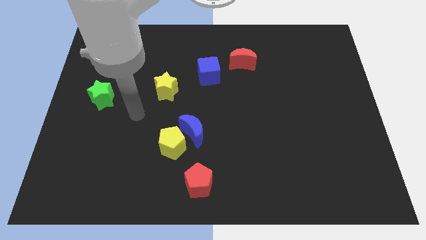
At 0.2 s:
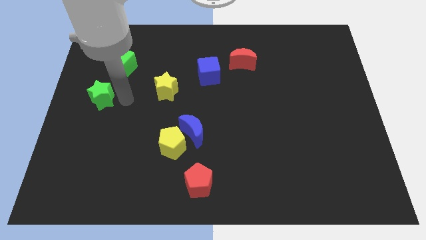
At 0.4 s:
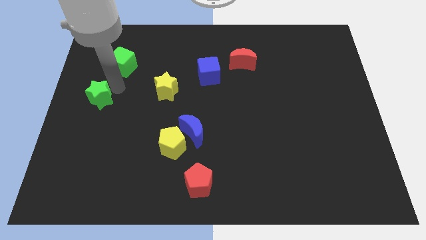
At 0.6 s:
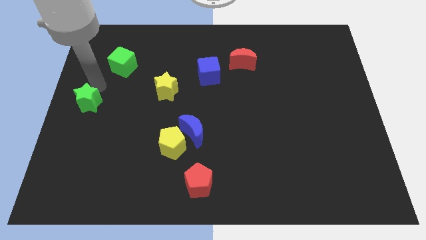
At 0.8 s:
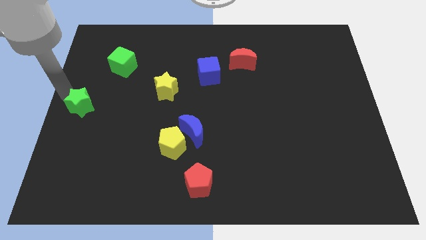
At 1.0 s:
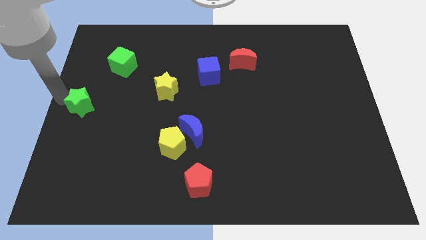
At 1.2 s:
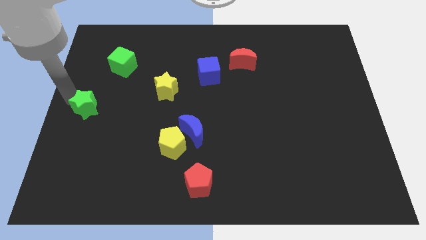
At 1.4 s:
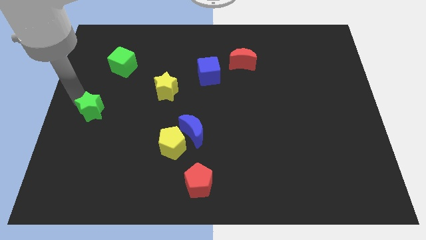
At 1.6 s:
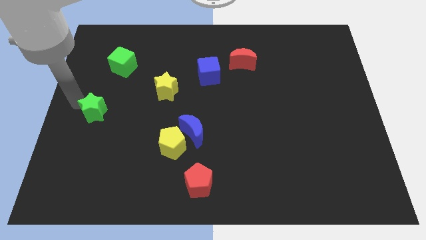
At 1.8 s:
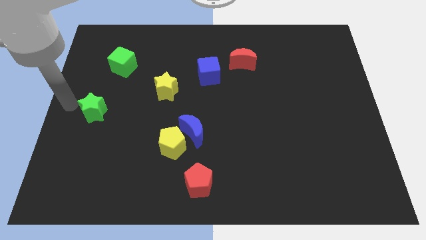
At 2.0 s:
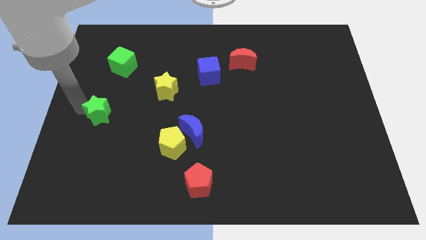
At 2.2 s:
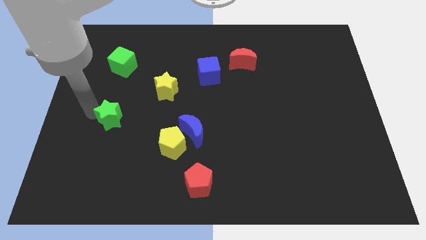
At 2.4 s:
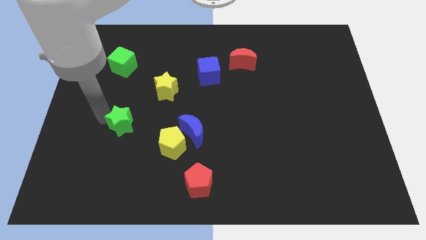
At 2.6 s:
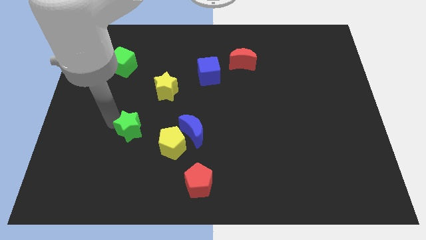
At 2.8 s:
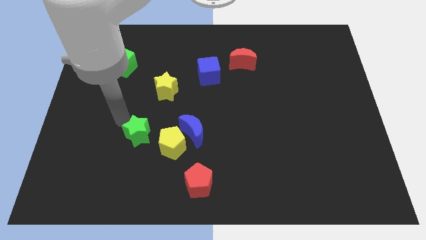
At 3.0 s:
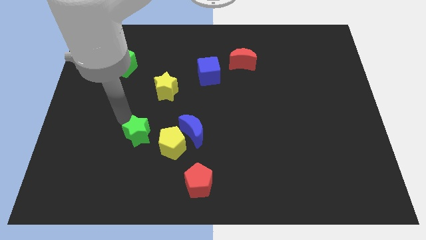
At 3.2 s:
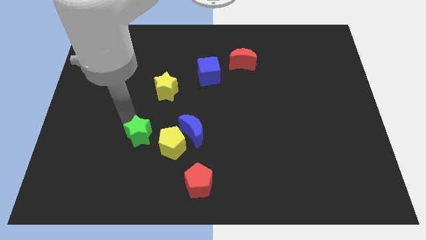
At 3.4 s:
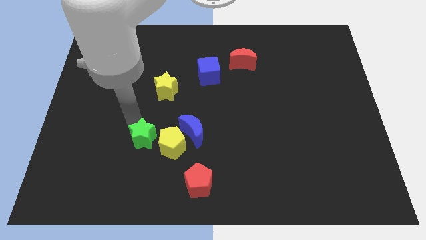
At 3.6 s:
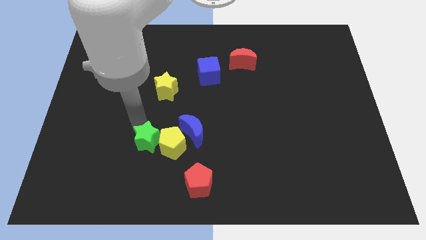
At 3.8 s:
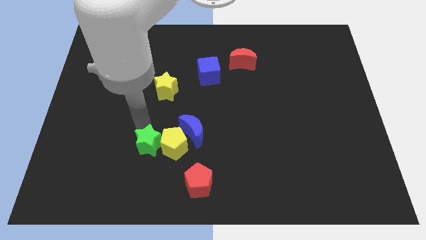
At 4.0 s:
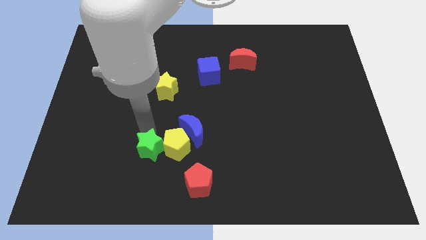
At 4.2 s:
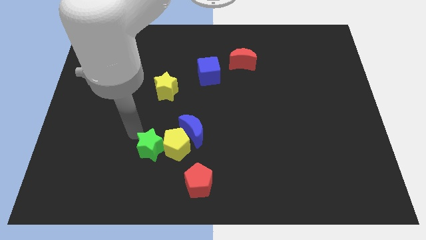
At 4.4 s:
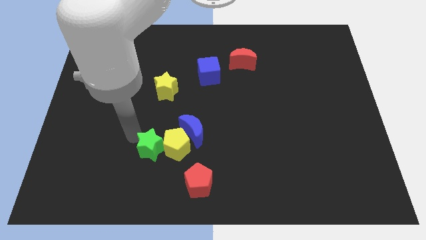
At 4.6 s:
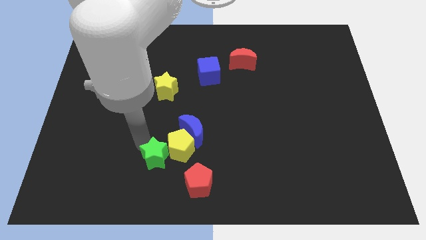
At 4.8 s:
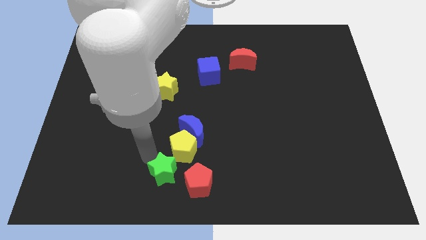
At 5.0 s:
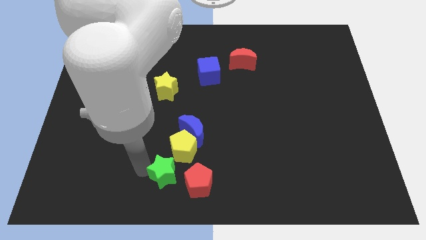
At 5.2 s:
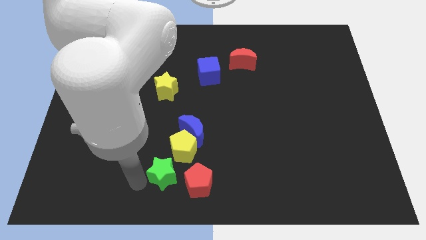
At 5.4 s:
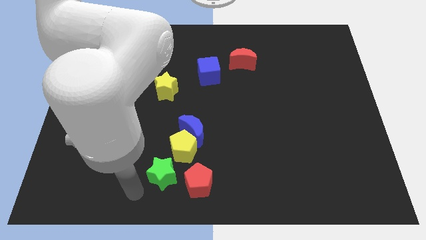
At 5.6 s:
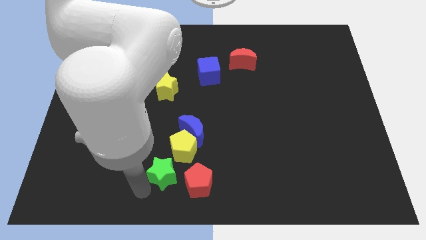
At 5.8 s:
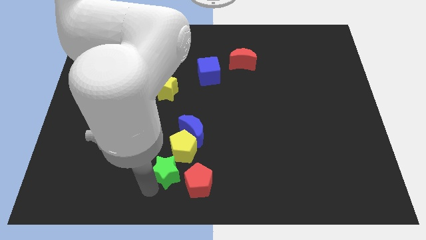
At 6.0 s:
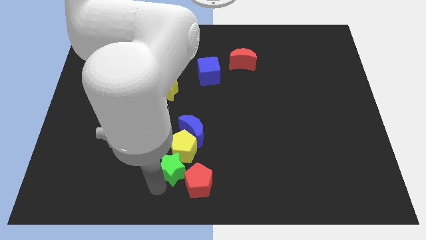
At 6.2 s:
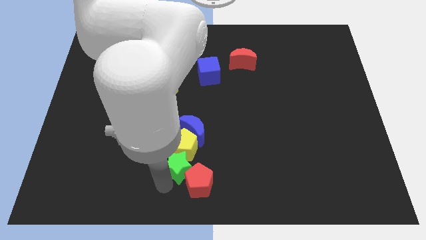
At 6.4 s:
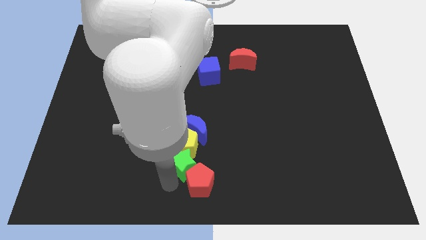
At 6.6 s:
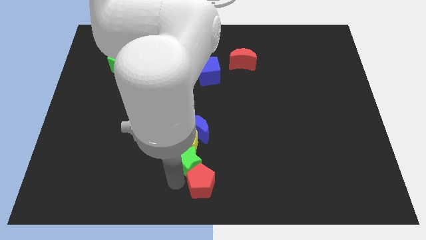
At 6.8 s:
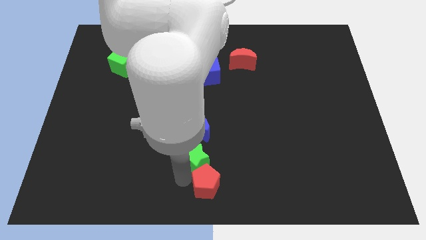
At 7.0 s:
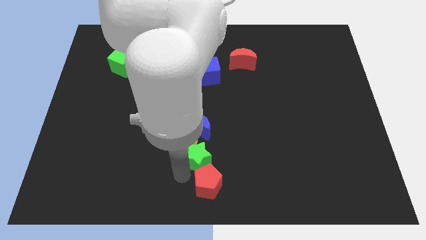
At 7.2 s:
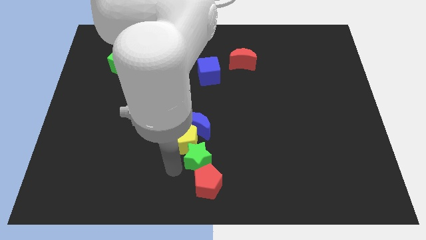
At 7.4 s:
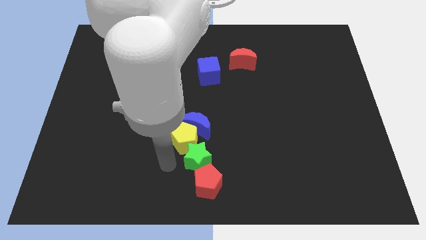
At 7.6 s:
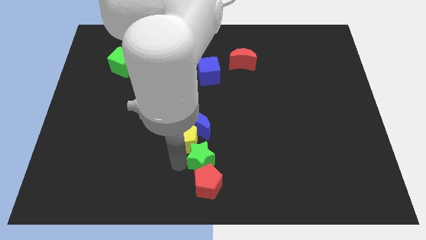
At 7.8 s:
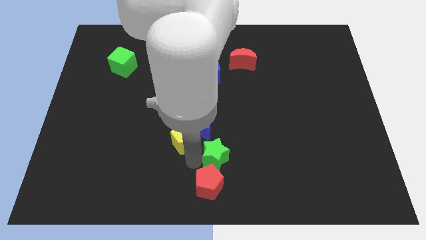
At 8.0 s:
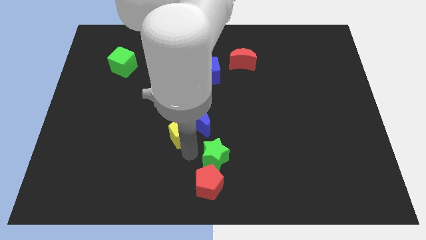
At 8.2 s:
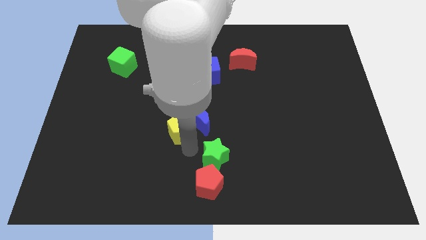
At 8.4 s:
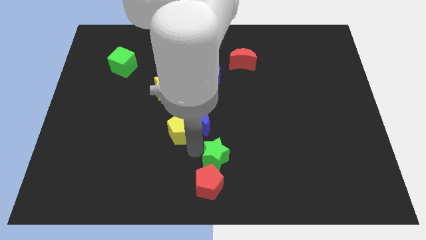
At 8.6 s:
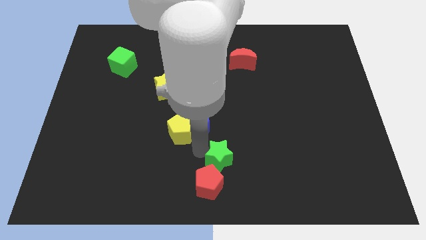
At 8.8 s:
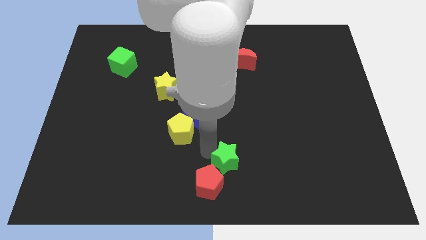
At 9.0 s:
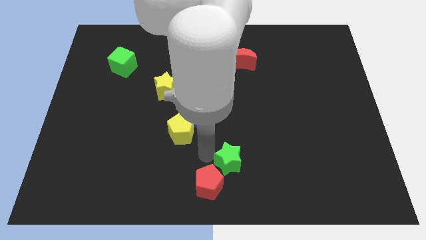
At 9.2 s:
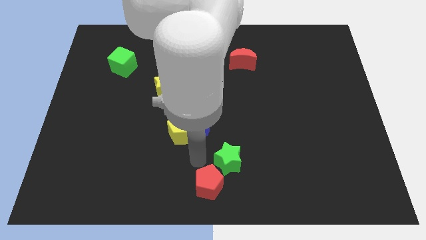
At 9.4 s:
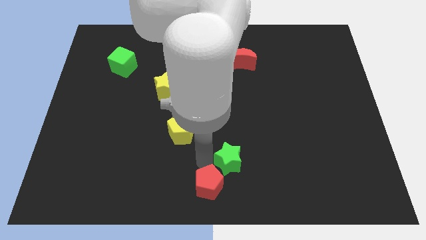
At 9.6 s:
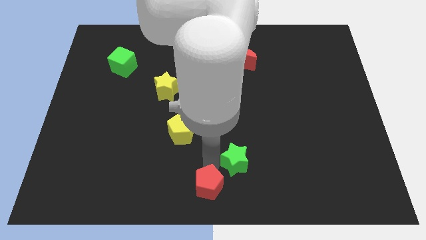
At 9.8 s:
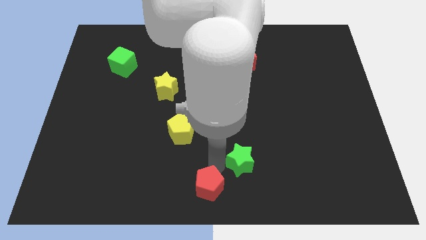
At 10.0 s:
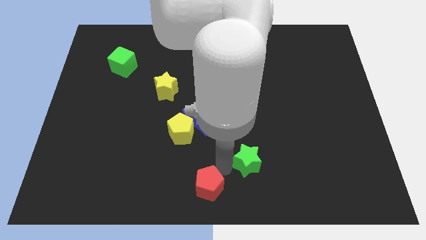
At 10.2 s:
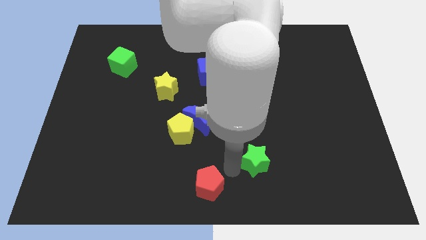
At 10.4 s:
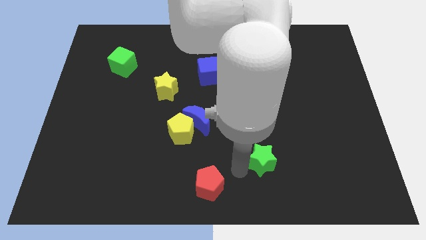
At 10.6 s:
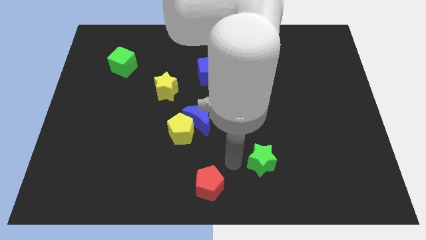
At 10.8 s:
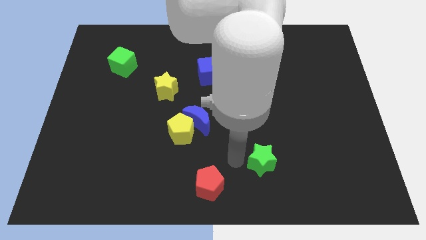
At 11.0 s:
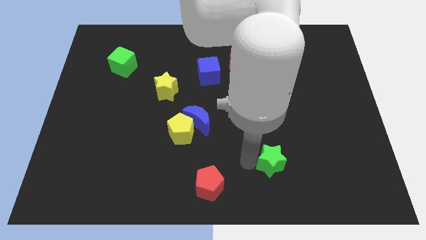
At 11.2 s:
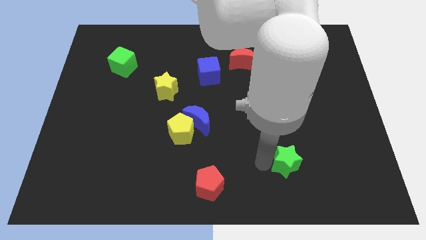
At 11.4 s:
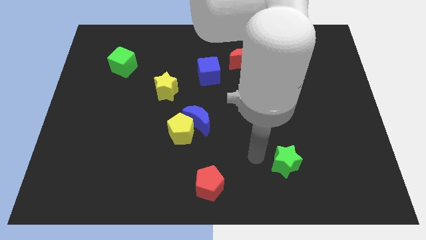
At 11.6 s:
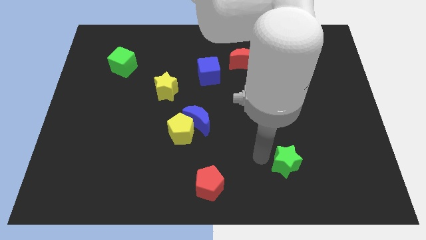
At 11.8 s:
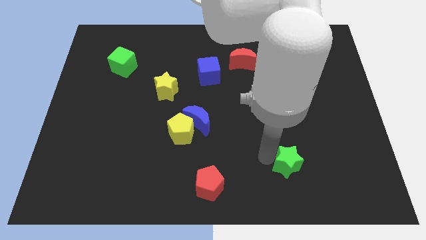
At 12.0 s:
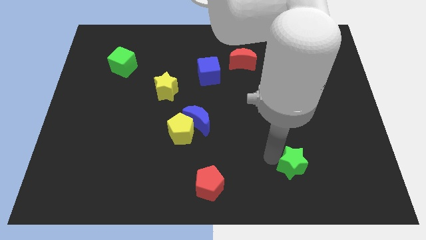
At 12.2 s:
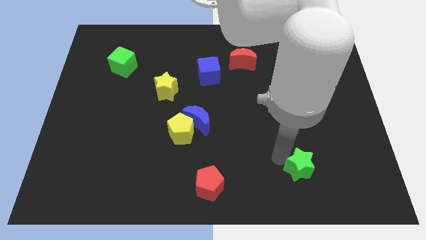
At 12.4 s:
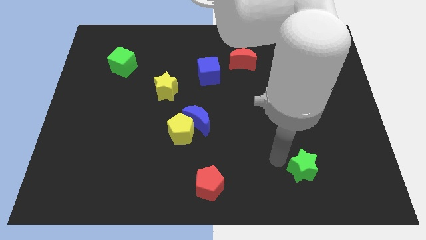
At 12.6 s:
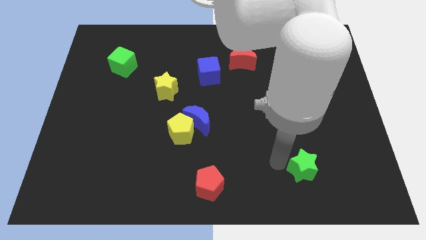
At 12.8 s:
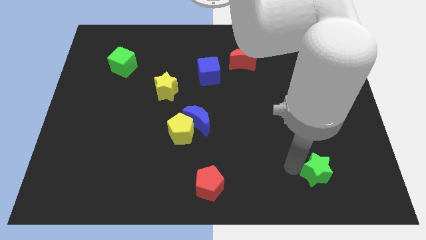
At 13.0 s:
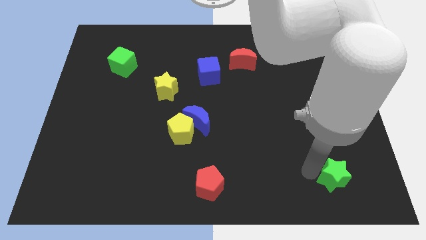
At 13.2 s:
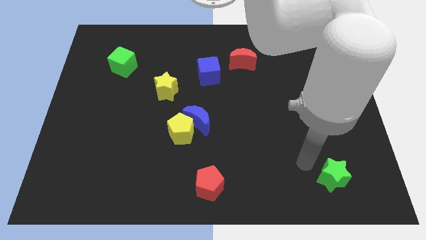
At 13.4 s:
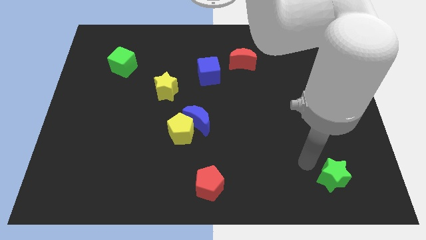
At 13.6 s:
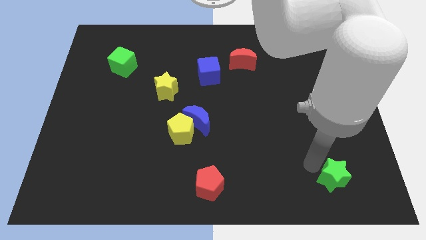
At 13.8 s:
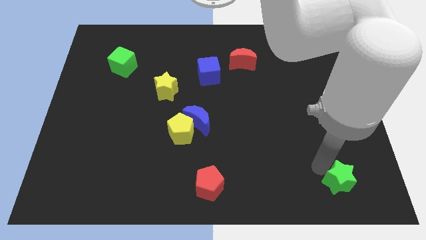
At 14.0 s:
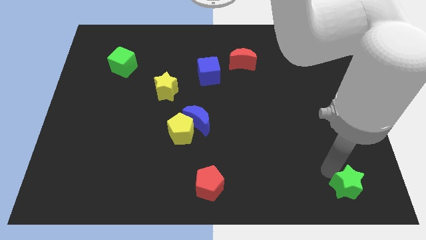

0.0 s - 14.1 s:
put the green star to the bottom right of the board

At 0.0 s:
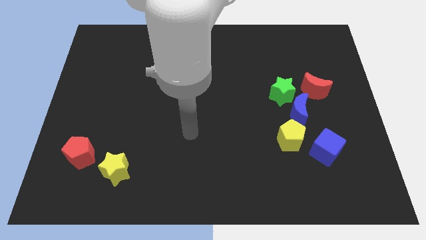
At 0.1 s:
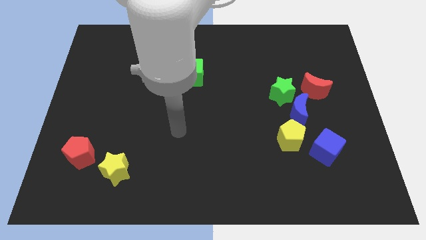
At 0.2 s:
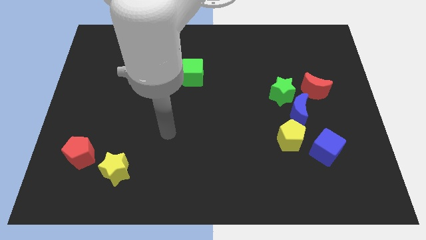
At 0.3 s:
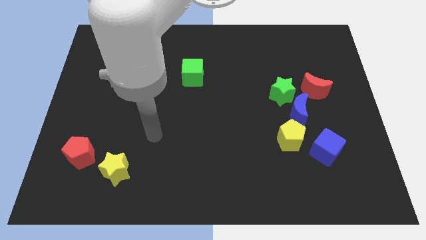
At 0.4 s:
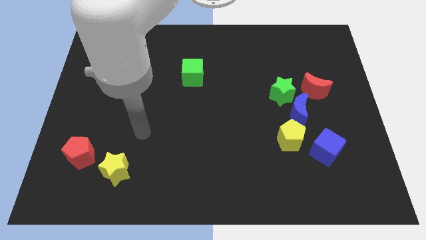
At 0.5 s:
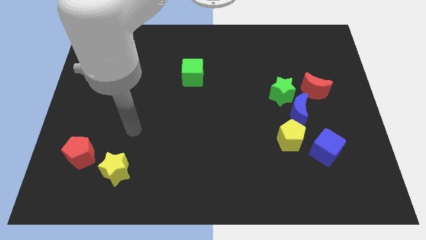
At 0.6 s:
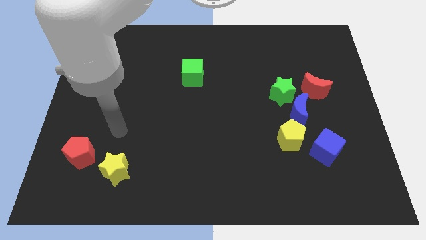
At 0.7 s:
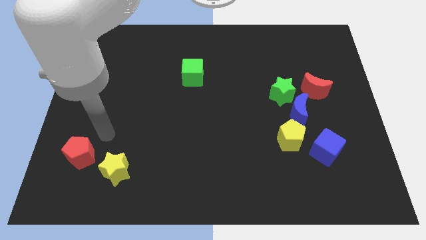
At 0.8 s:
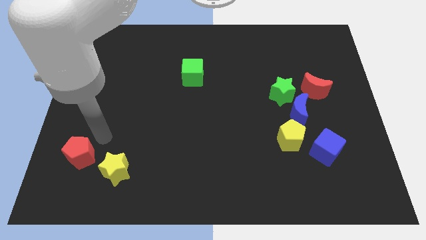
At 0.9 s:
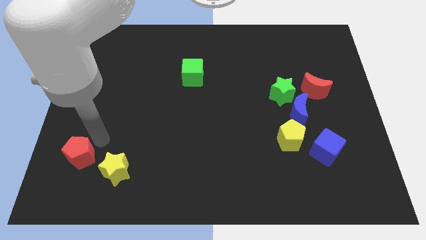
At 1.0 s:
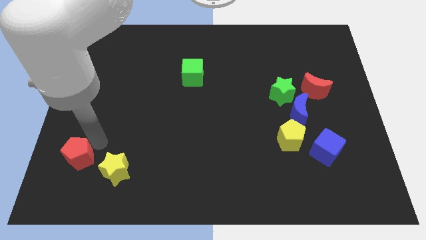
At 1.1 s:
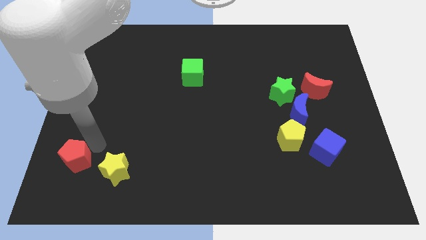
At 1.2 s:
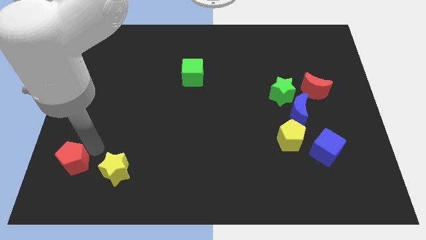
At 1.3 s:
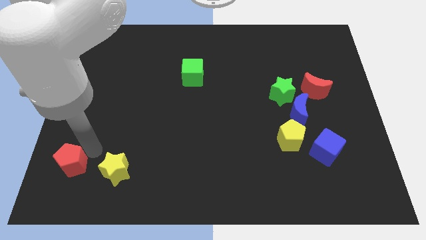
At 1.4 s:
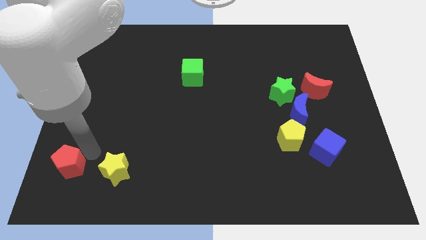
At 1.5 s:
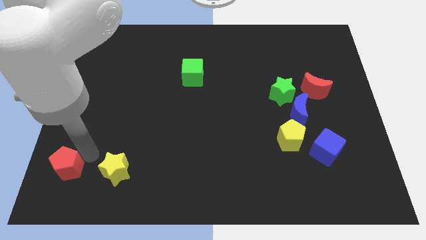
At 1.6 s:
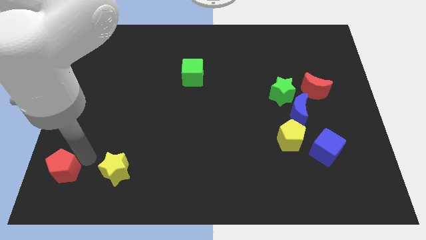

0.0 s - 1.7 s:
move the red pentagon to the bottom left corner
